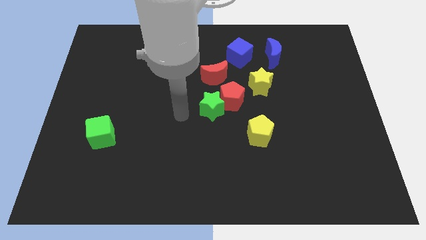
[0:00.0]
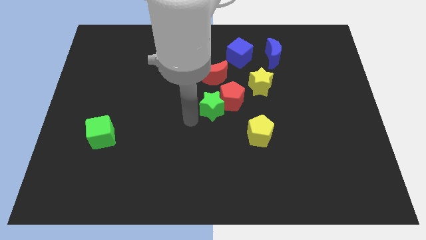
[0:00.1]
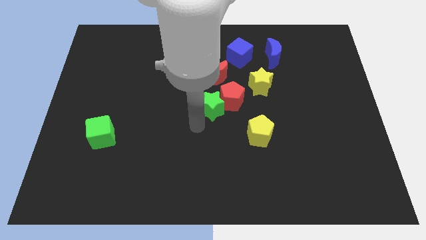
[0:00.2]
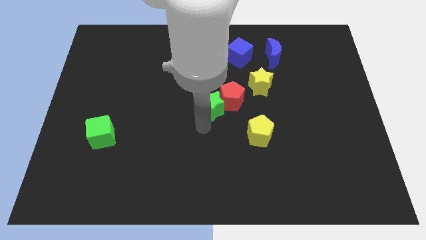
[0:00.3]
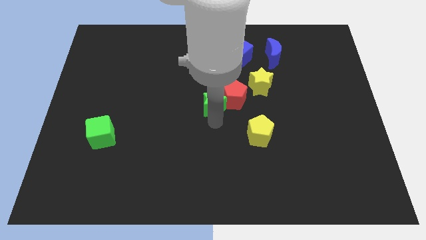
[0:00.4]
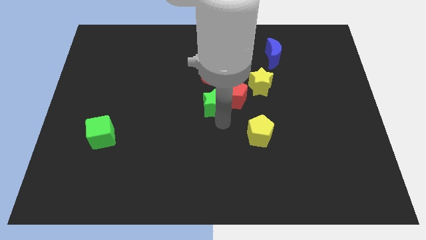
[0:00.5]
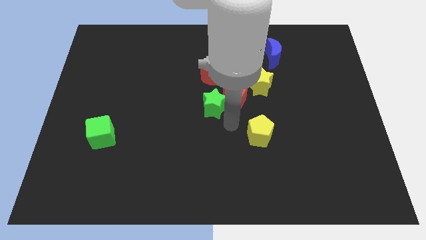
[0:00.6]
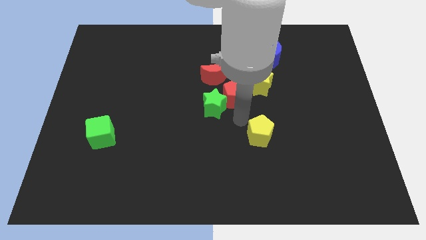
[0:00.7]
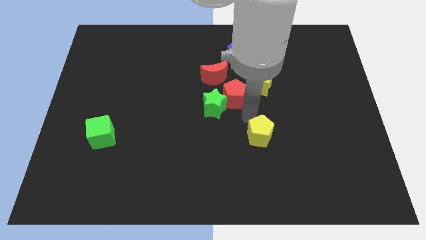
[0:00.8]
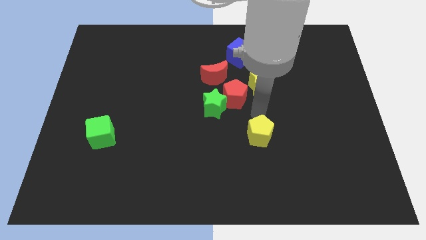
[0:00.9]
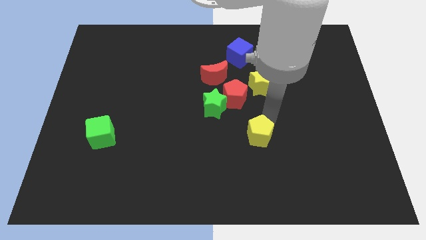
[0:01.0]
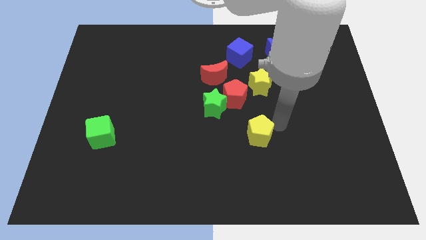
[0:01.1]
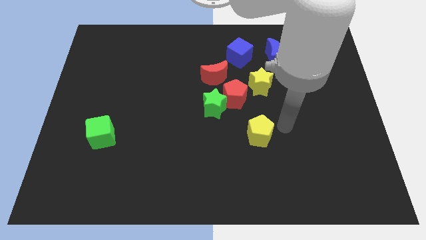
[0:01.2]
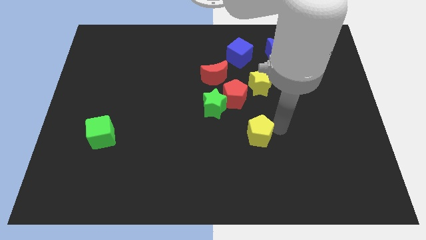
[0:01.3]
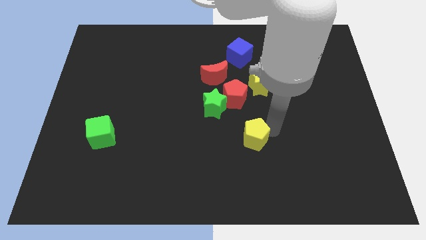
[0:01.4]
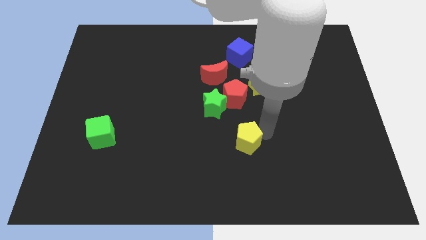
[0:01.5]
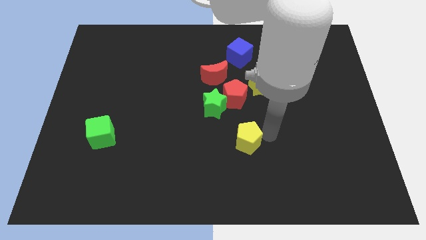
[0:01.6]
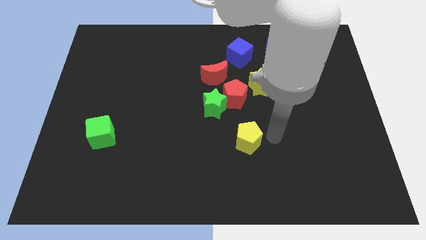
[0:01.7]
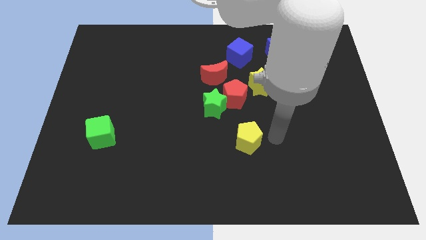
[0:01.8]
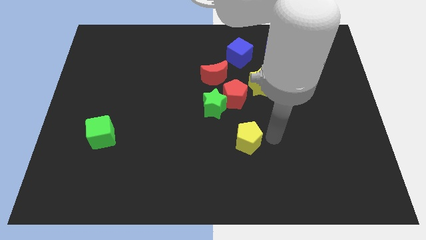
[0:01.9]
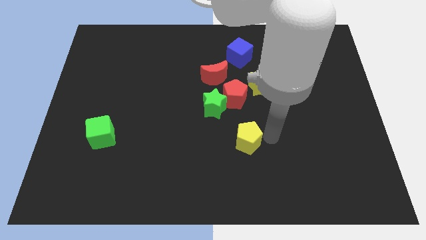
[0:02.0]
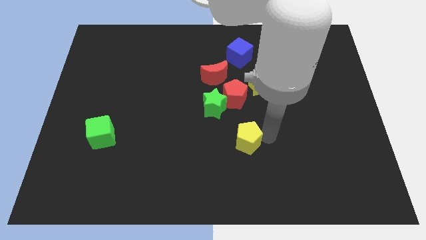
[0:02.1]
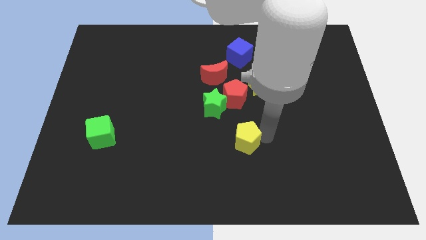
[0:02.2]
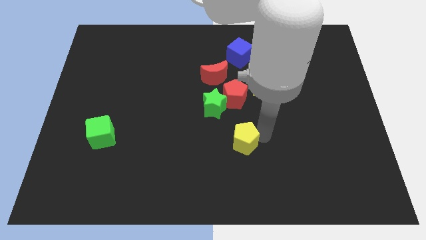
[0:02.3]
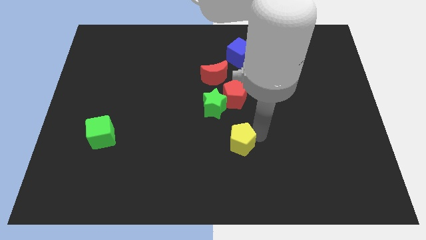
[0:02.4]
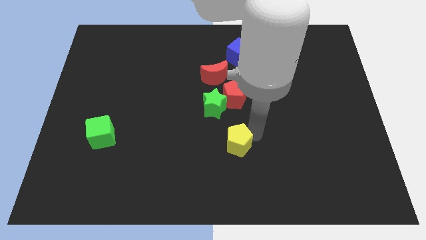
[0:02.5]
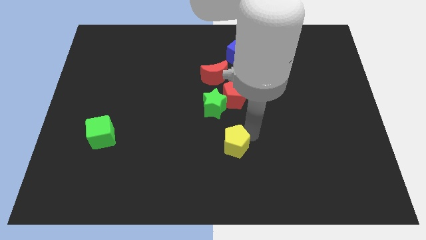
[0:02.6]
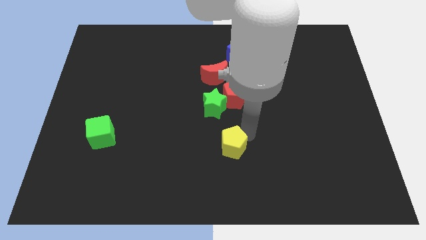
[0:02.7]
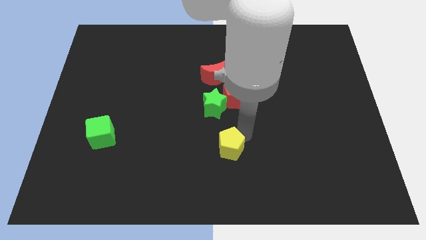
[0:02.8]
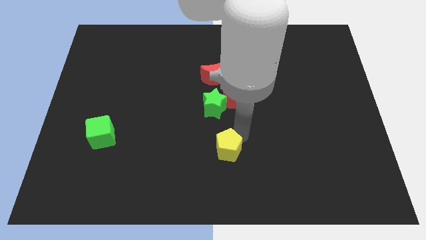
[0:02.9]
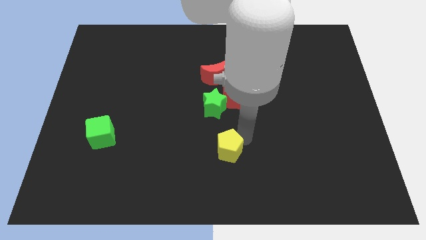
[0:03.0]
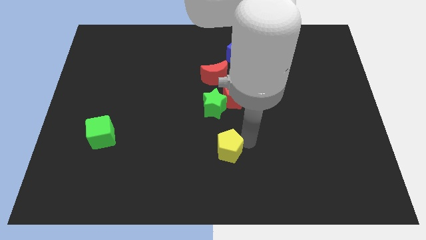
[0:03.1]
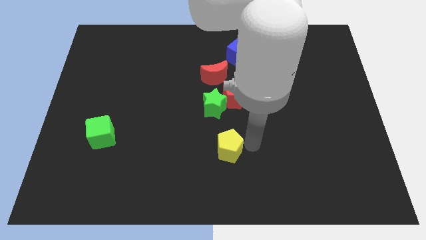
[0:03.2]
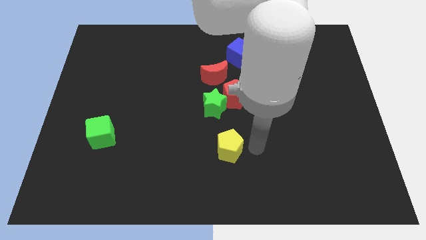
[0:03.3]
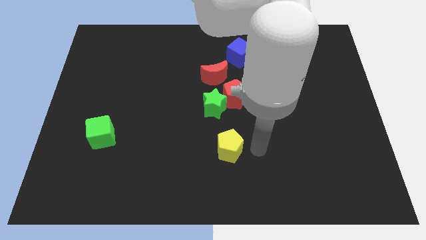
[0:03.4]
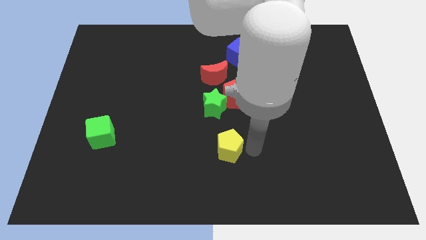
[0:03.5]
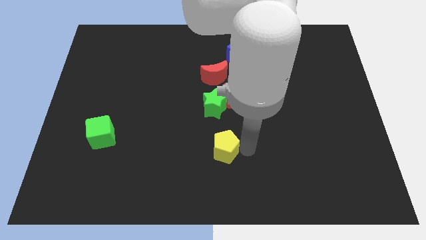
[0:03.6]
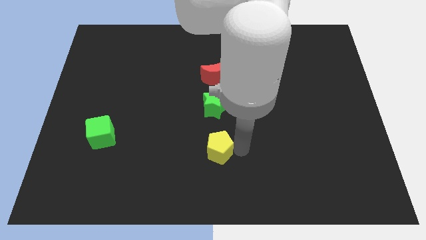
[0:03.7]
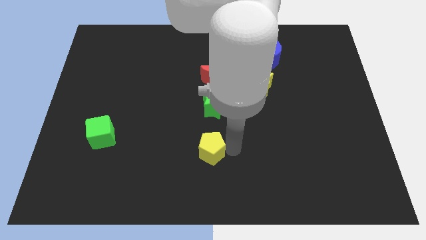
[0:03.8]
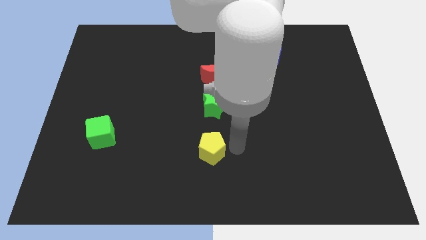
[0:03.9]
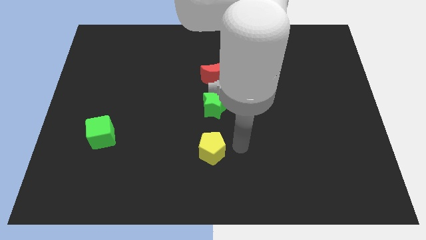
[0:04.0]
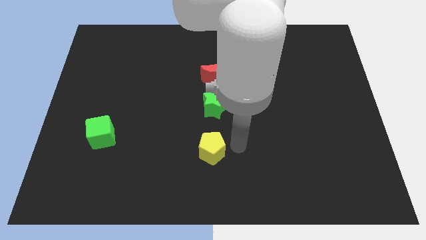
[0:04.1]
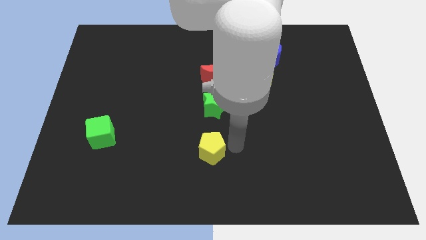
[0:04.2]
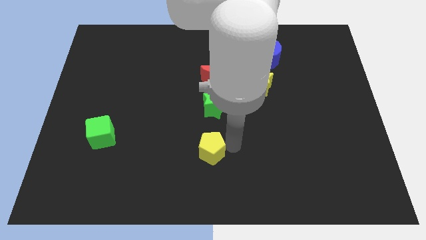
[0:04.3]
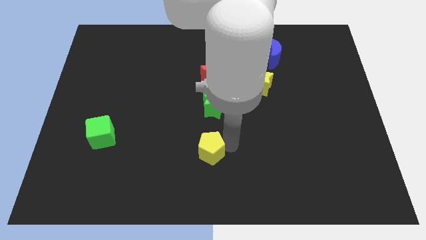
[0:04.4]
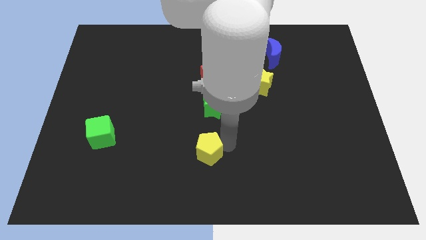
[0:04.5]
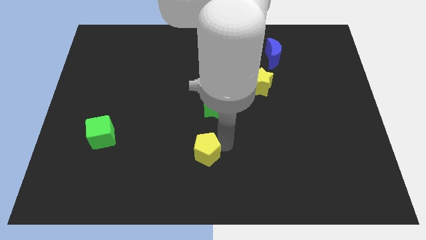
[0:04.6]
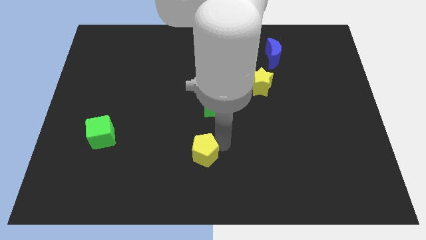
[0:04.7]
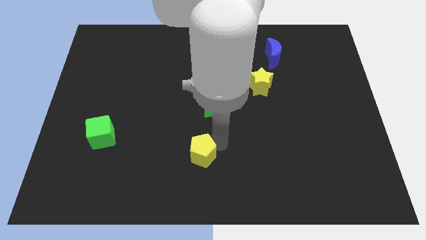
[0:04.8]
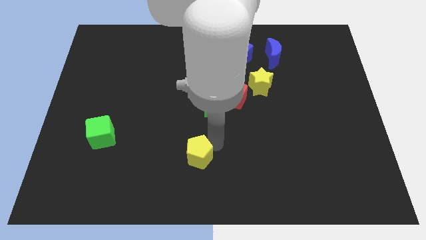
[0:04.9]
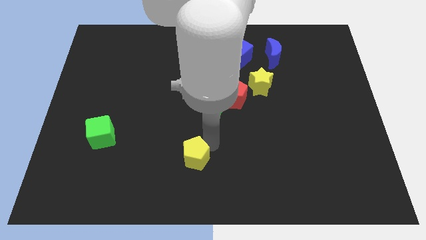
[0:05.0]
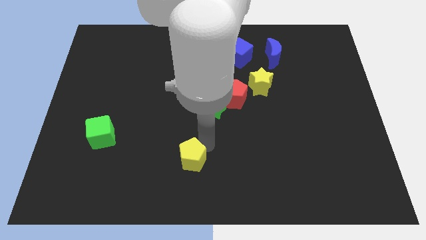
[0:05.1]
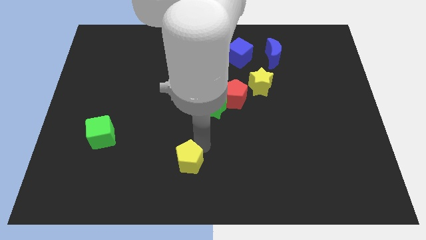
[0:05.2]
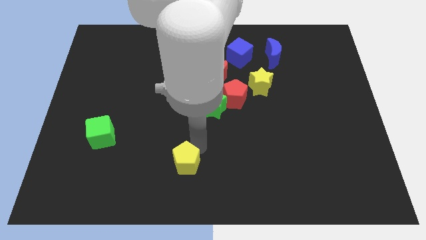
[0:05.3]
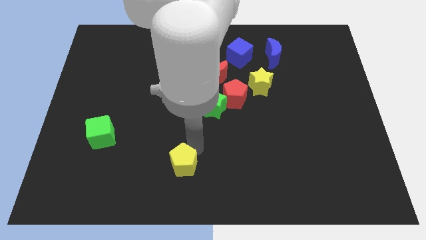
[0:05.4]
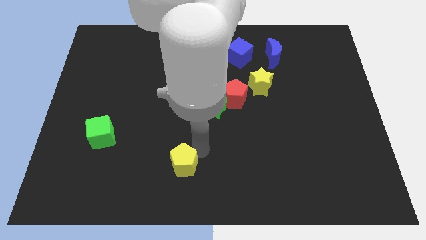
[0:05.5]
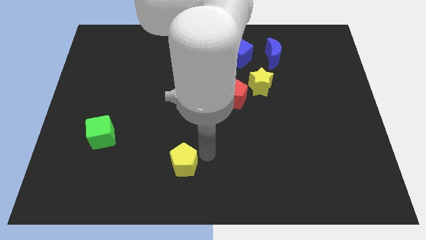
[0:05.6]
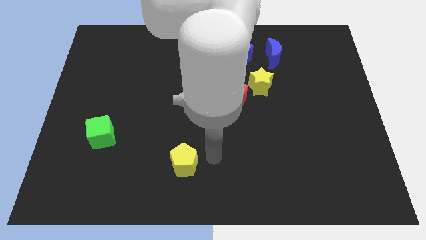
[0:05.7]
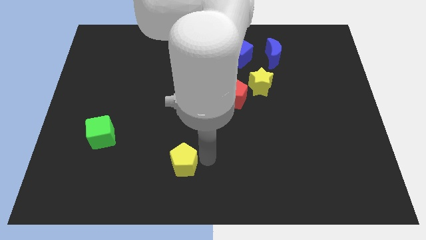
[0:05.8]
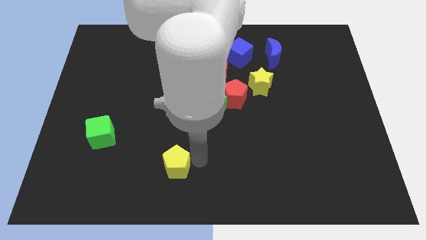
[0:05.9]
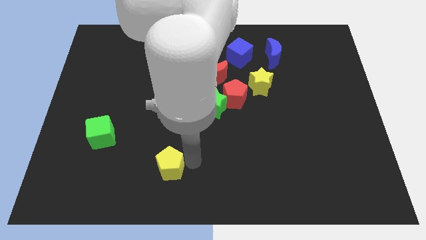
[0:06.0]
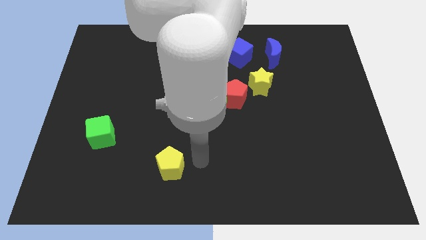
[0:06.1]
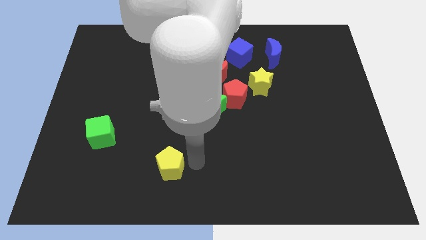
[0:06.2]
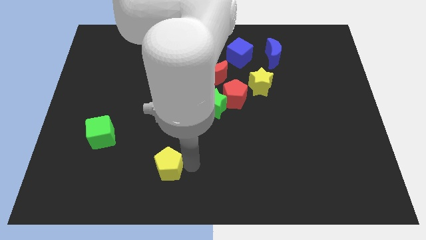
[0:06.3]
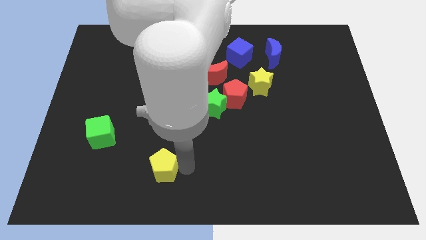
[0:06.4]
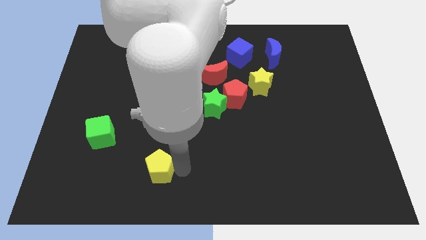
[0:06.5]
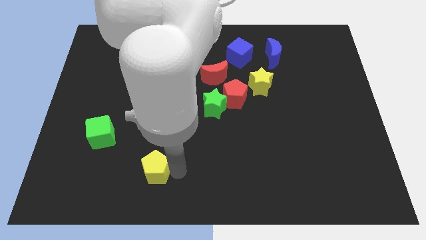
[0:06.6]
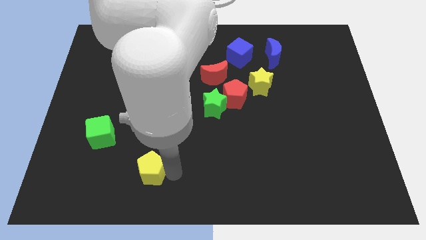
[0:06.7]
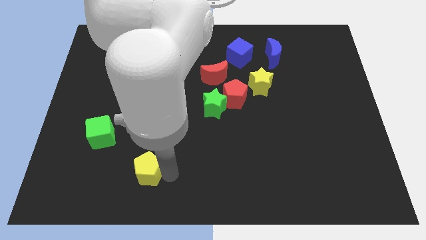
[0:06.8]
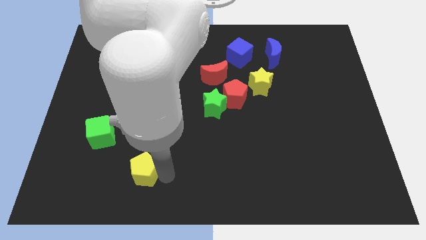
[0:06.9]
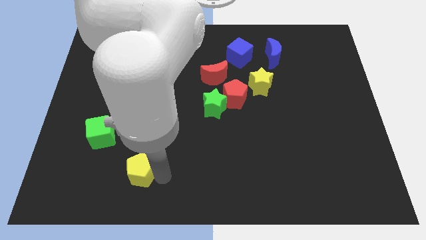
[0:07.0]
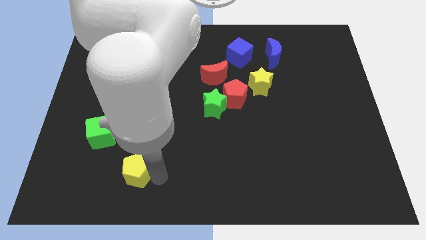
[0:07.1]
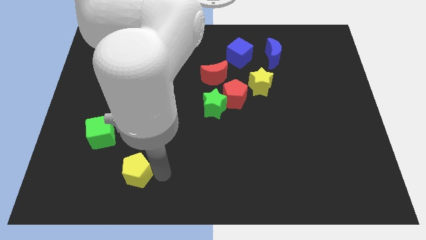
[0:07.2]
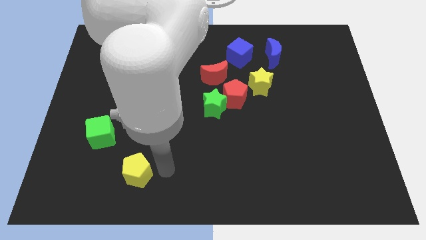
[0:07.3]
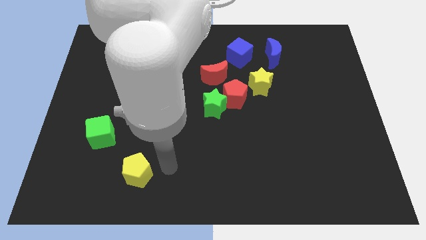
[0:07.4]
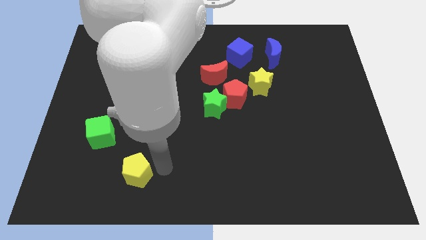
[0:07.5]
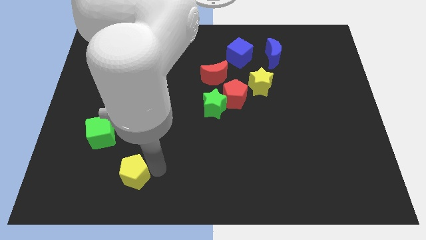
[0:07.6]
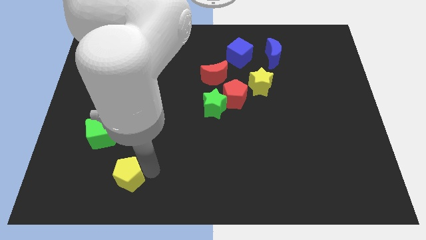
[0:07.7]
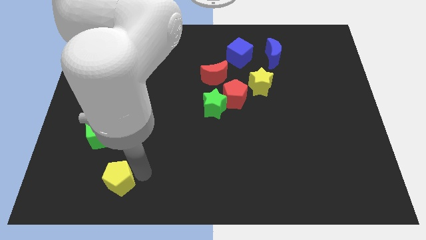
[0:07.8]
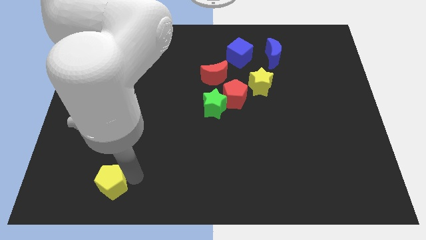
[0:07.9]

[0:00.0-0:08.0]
slide the yellow pentagon below the green cube
